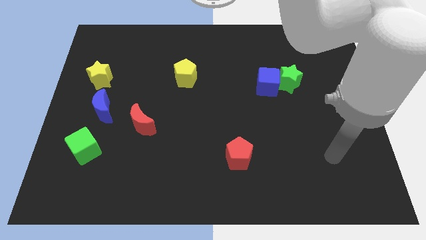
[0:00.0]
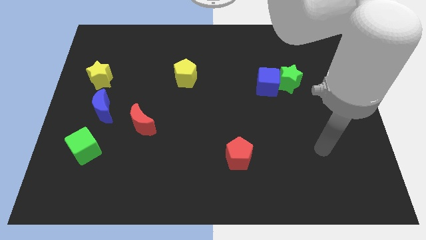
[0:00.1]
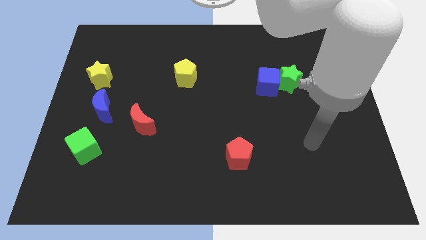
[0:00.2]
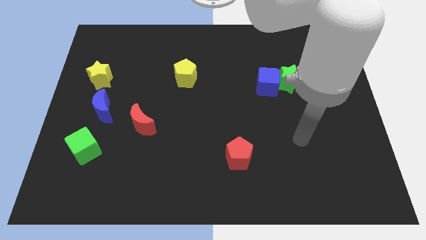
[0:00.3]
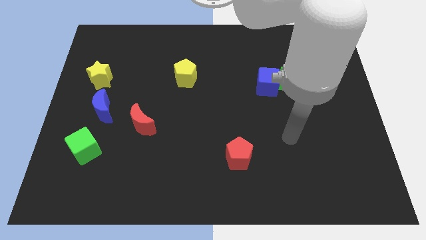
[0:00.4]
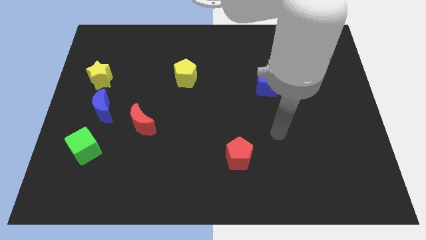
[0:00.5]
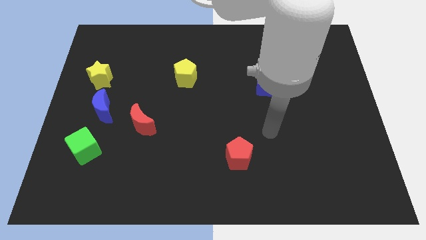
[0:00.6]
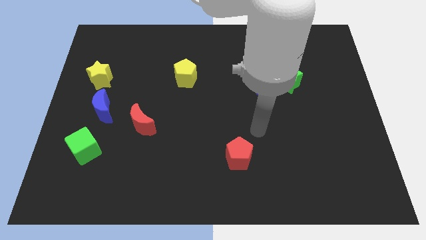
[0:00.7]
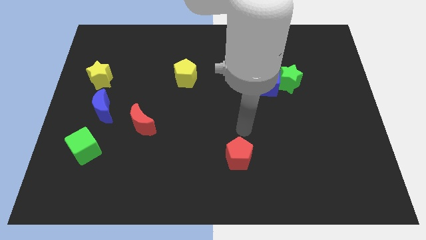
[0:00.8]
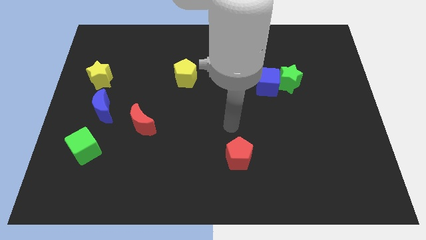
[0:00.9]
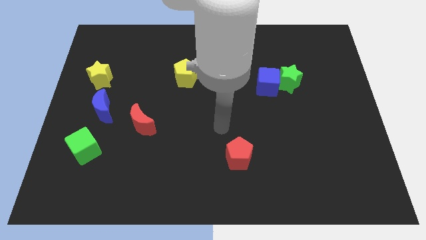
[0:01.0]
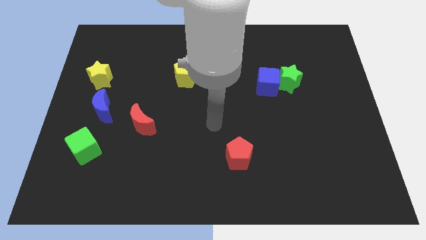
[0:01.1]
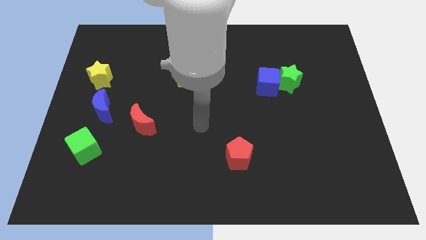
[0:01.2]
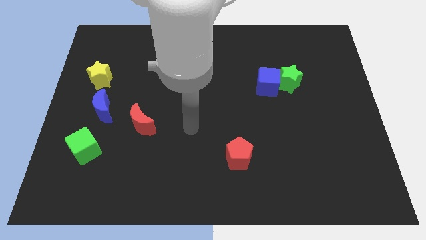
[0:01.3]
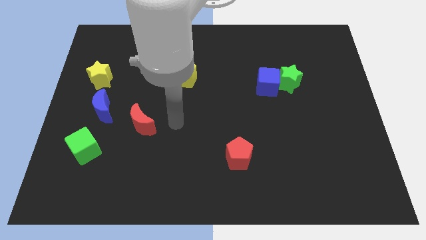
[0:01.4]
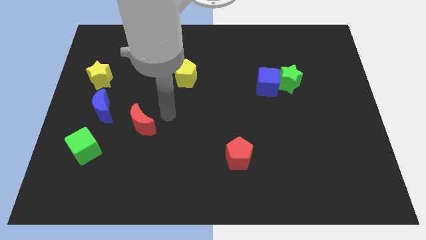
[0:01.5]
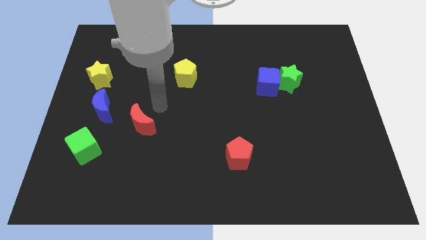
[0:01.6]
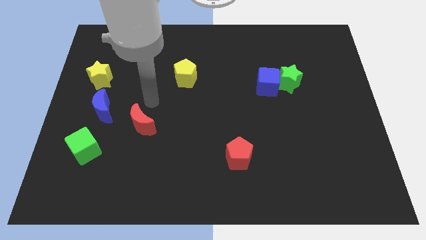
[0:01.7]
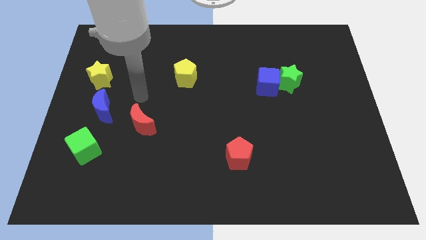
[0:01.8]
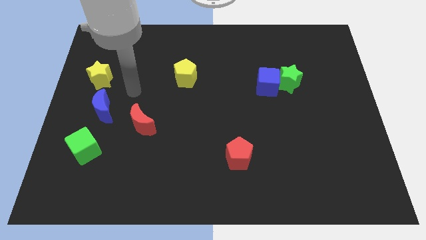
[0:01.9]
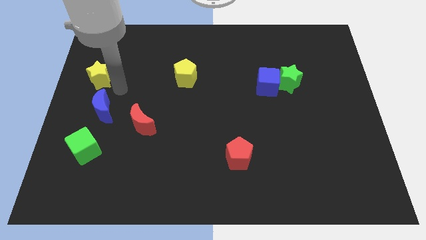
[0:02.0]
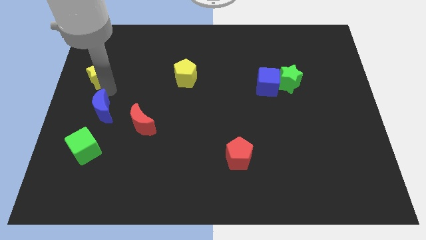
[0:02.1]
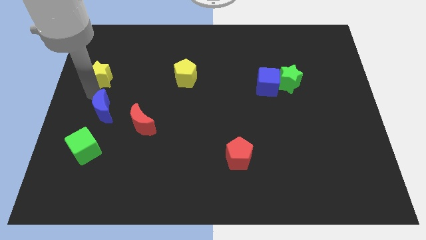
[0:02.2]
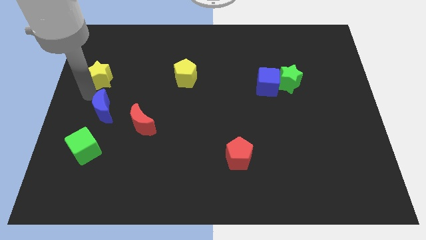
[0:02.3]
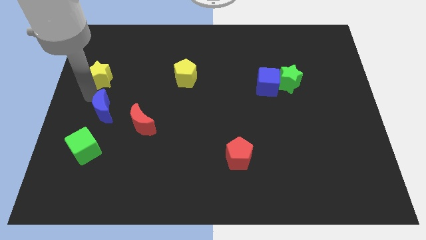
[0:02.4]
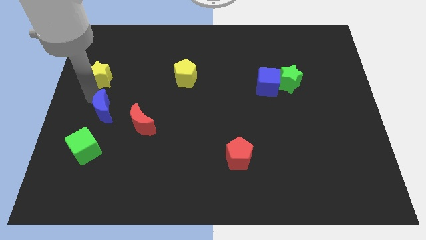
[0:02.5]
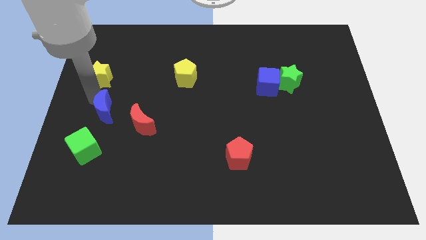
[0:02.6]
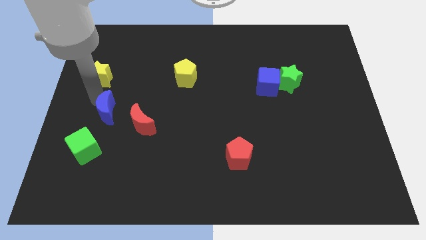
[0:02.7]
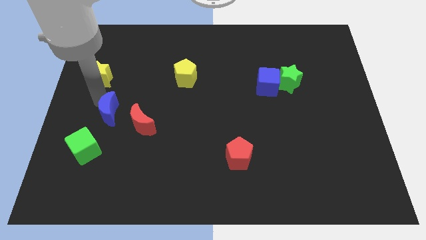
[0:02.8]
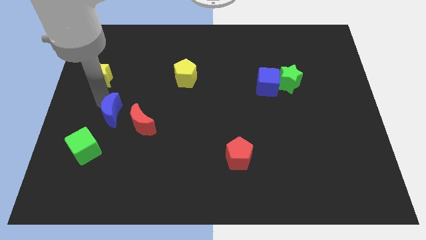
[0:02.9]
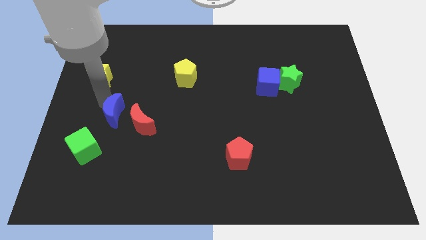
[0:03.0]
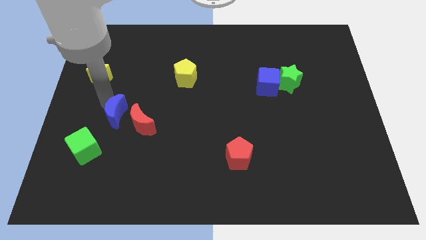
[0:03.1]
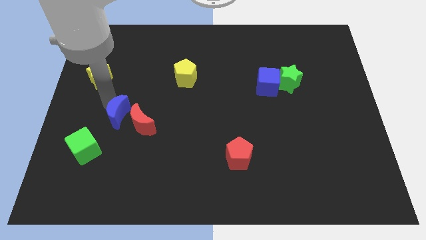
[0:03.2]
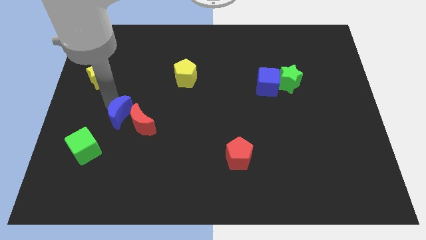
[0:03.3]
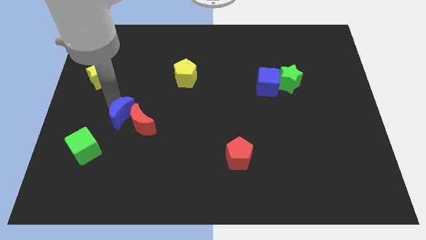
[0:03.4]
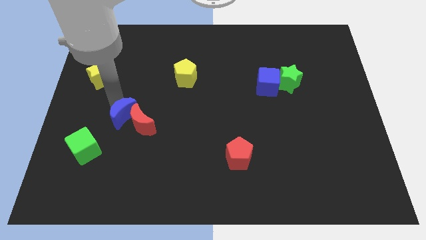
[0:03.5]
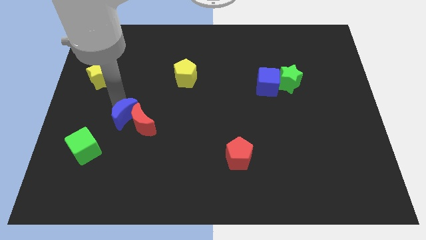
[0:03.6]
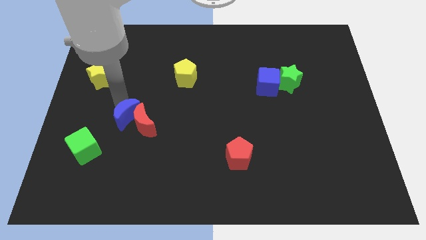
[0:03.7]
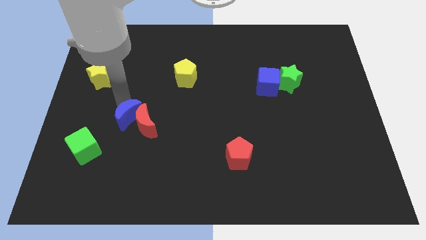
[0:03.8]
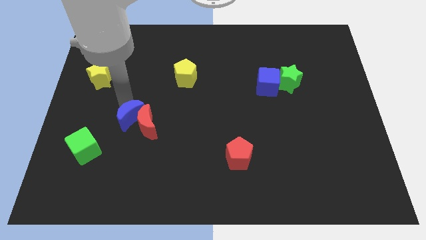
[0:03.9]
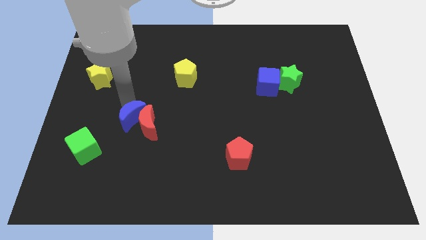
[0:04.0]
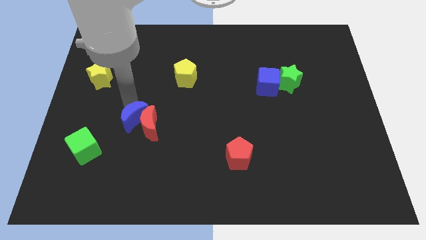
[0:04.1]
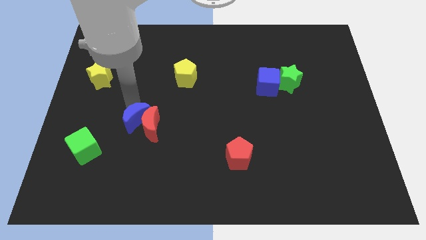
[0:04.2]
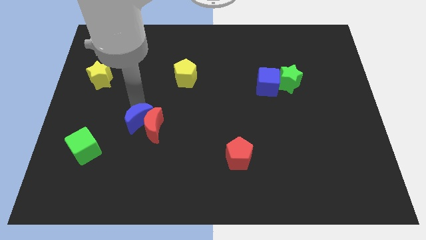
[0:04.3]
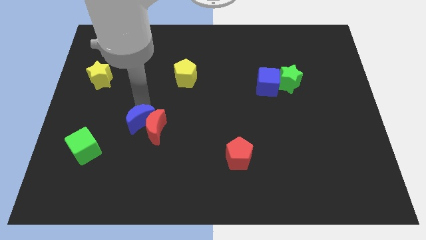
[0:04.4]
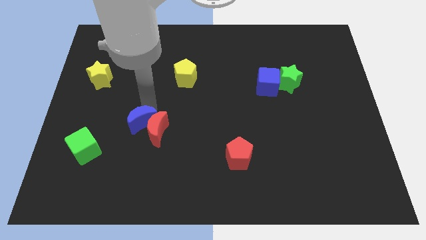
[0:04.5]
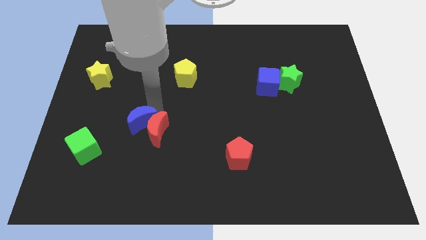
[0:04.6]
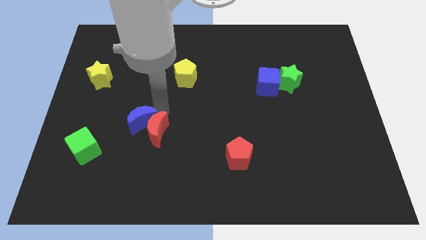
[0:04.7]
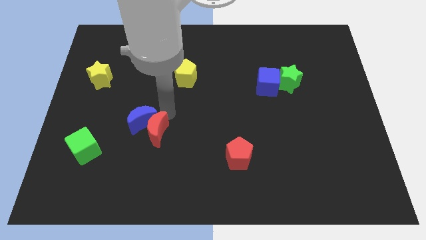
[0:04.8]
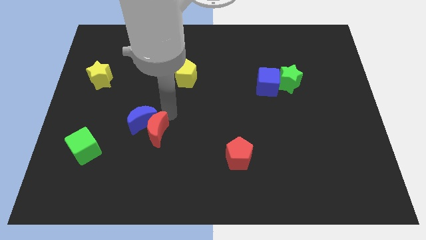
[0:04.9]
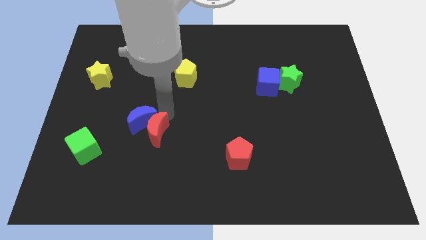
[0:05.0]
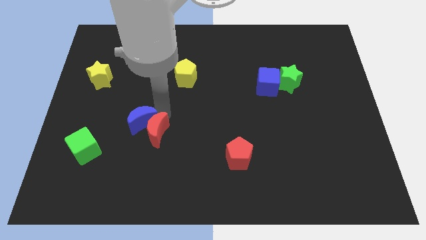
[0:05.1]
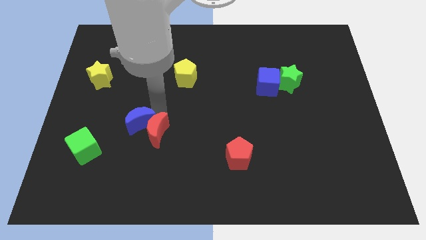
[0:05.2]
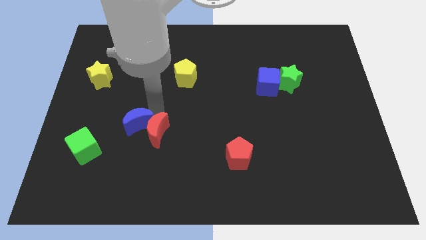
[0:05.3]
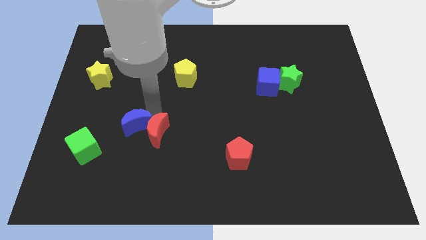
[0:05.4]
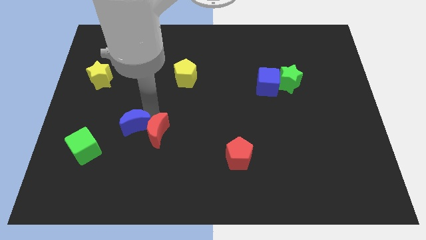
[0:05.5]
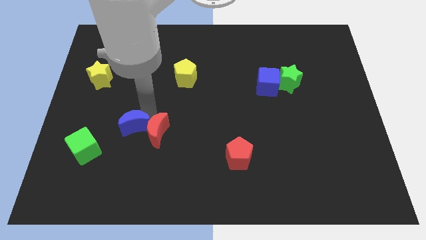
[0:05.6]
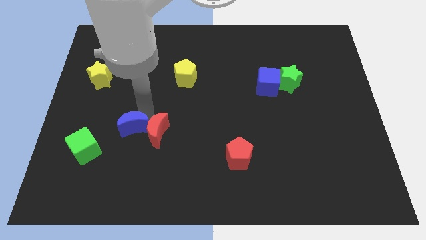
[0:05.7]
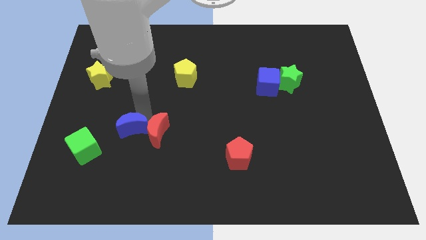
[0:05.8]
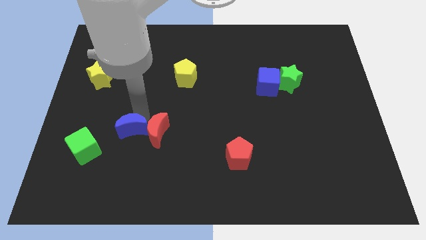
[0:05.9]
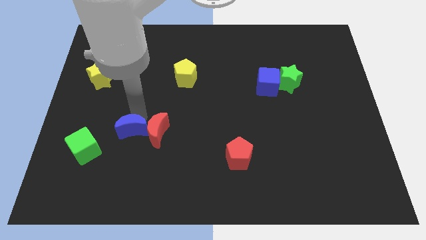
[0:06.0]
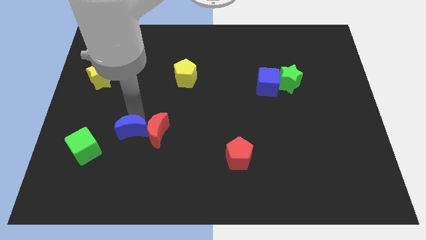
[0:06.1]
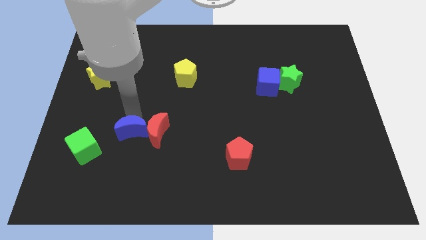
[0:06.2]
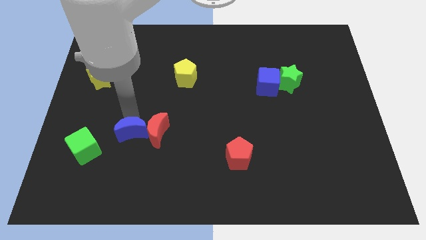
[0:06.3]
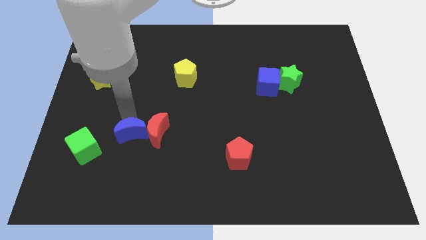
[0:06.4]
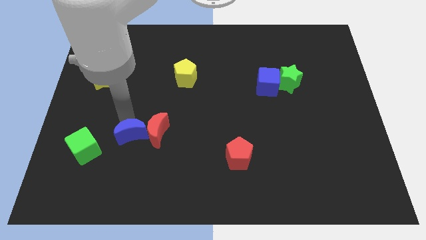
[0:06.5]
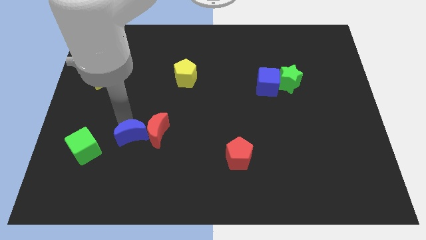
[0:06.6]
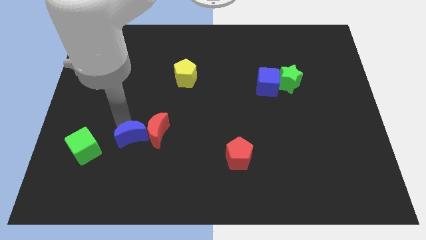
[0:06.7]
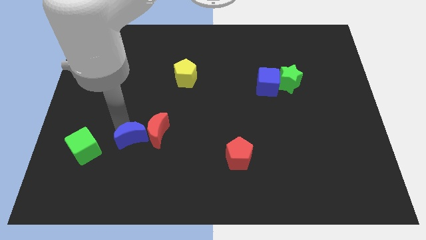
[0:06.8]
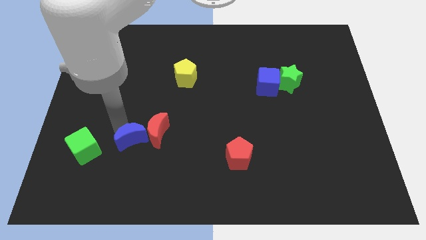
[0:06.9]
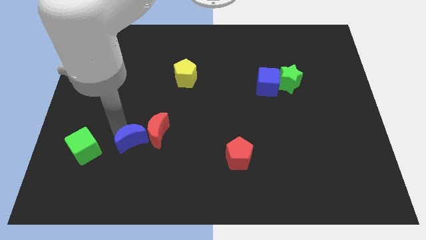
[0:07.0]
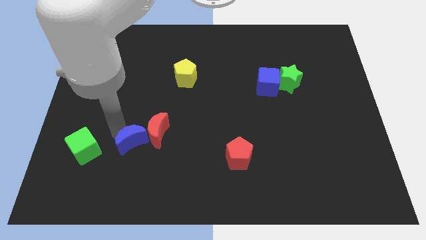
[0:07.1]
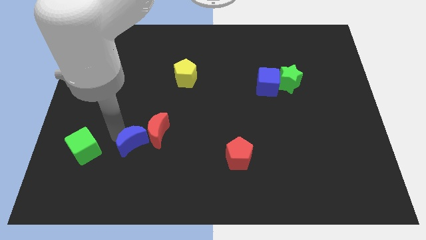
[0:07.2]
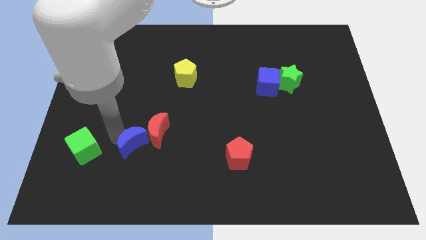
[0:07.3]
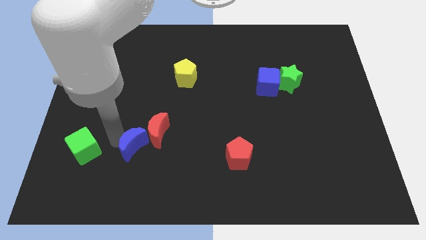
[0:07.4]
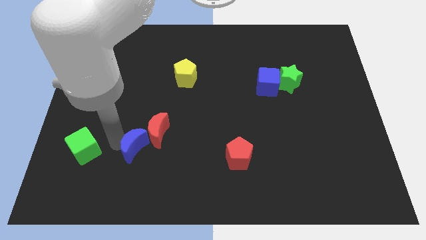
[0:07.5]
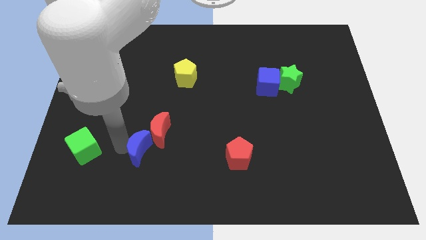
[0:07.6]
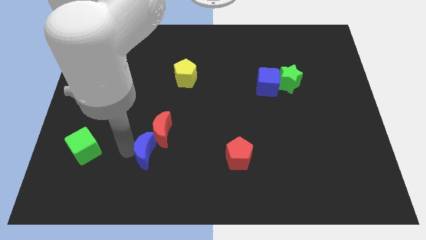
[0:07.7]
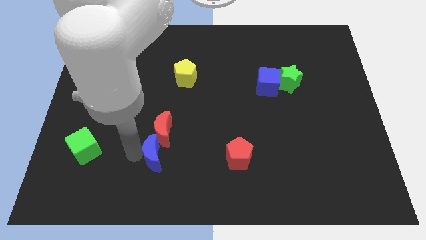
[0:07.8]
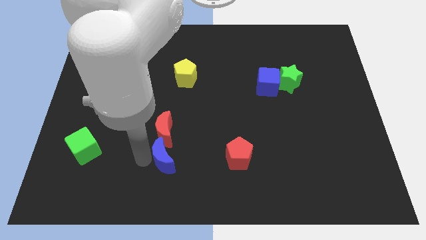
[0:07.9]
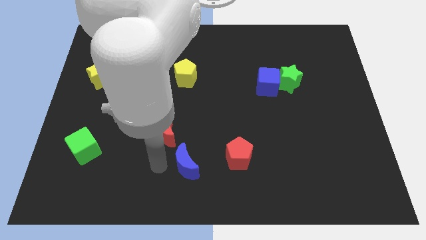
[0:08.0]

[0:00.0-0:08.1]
slide the blue moon to the bottom
